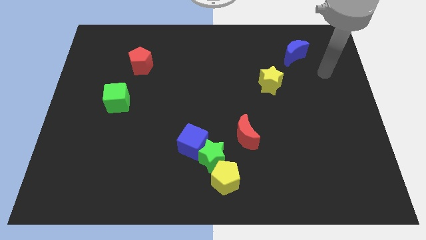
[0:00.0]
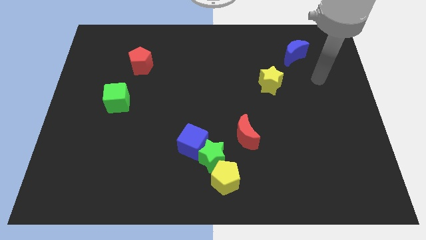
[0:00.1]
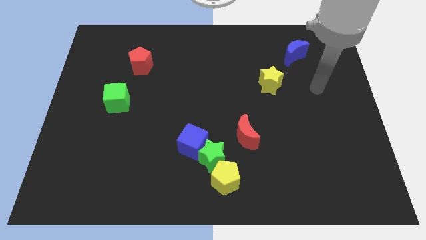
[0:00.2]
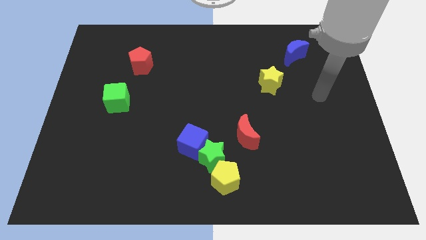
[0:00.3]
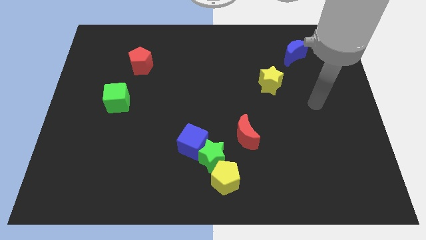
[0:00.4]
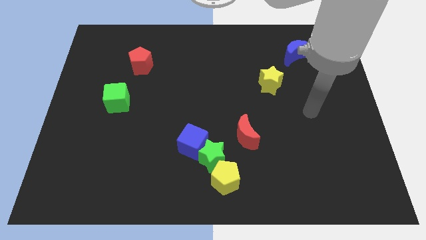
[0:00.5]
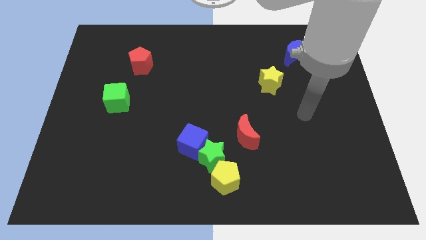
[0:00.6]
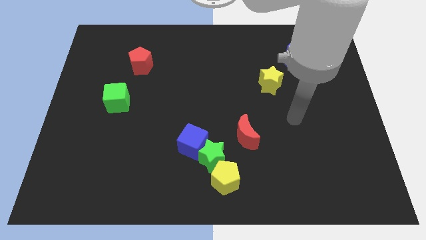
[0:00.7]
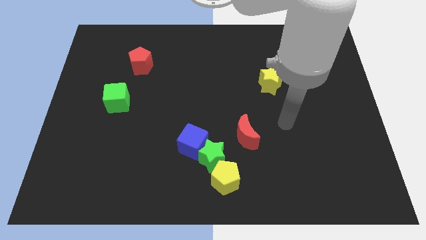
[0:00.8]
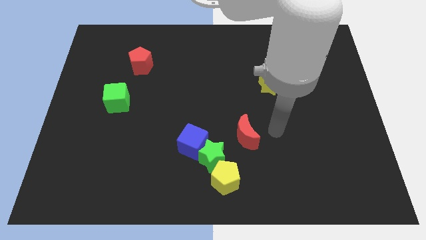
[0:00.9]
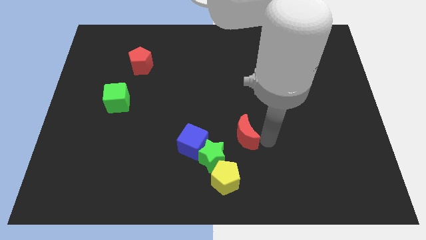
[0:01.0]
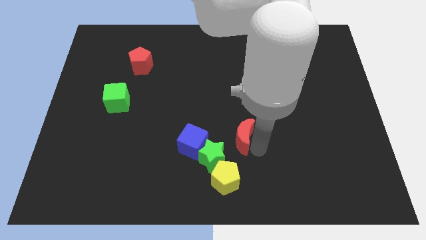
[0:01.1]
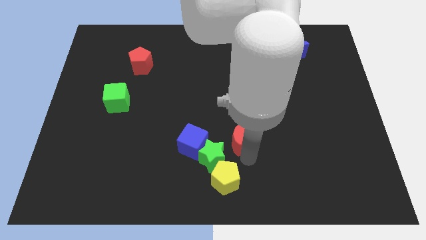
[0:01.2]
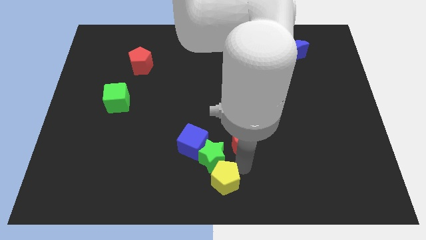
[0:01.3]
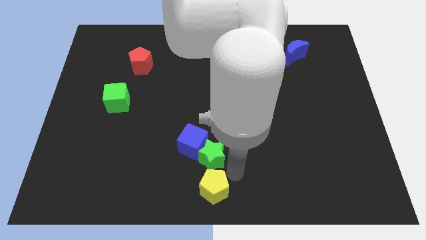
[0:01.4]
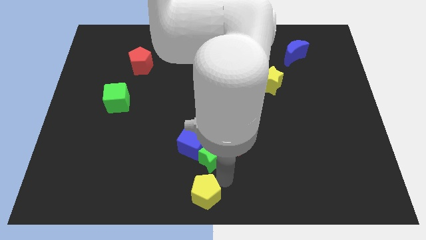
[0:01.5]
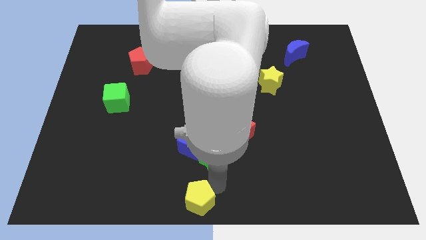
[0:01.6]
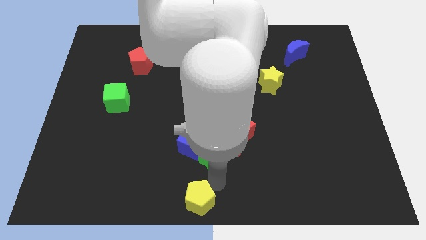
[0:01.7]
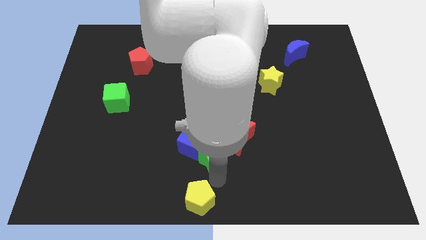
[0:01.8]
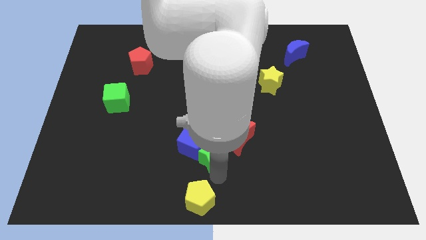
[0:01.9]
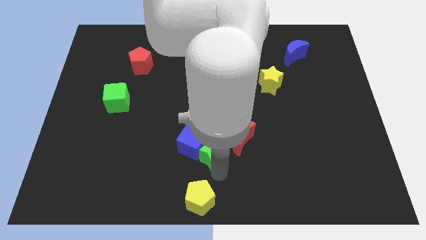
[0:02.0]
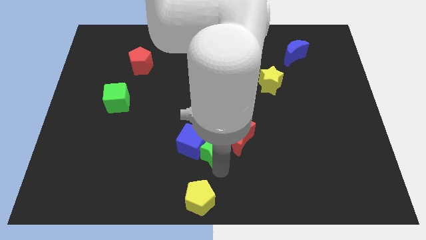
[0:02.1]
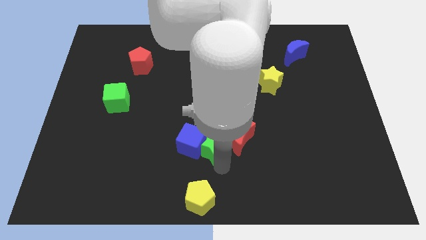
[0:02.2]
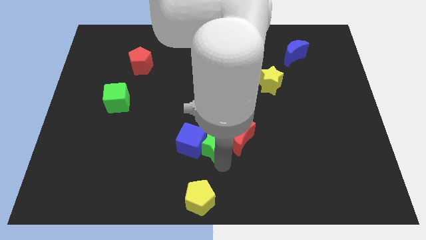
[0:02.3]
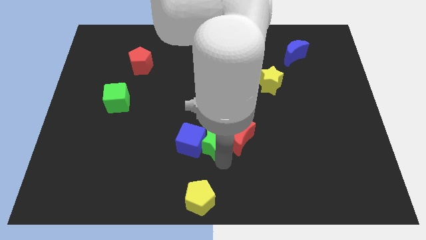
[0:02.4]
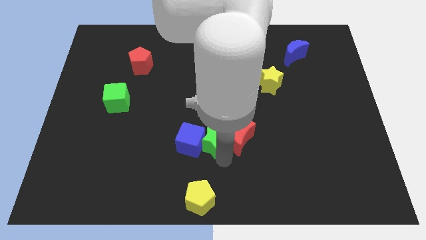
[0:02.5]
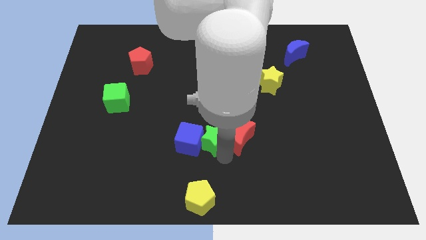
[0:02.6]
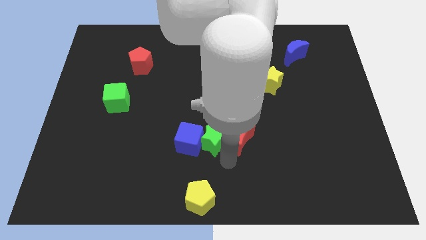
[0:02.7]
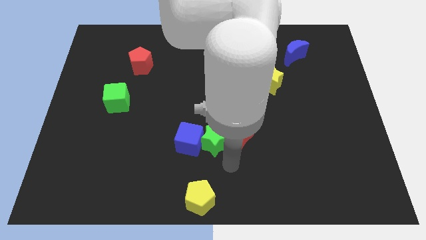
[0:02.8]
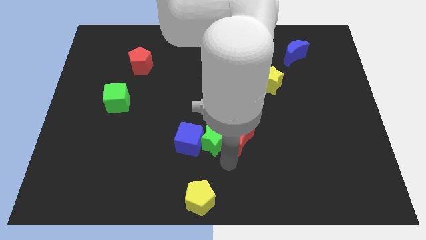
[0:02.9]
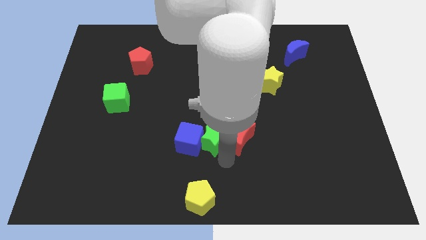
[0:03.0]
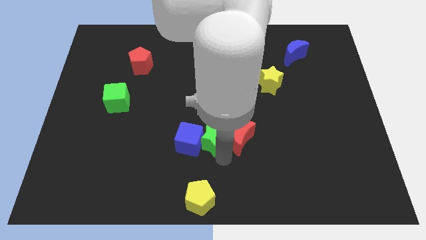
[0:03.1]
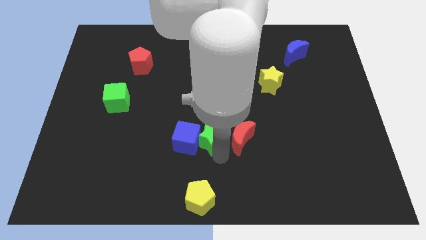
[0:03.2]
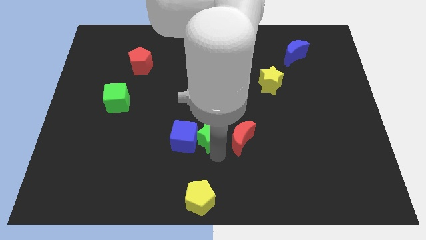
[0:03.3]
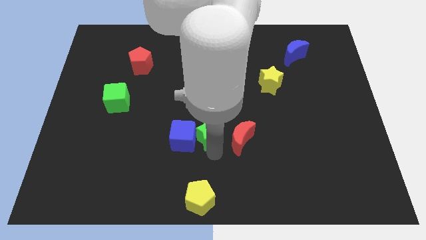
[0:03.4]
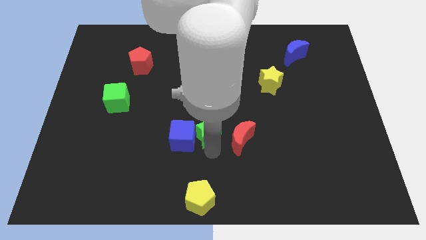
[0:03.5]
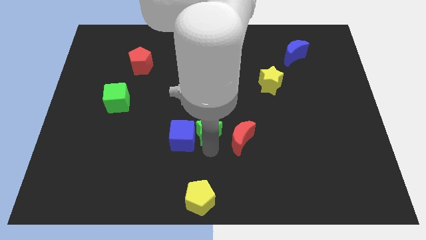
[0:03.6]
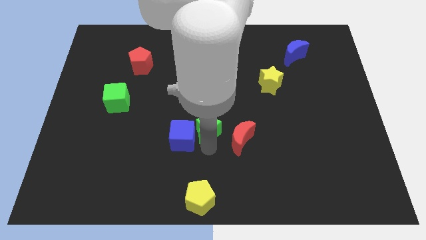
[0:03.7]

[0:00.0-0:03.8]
move the green star upwards a bit

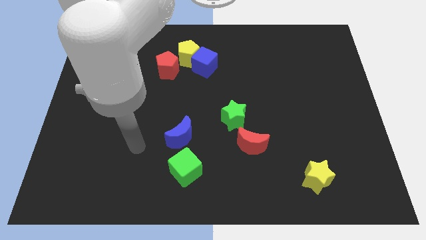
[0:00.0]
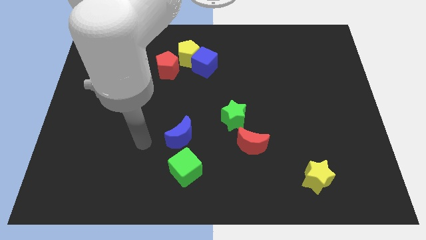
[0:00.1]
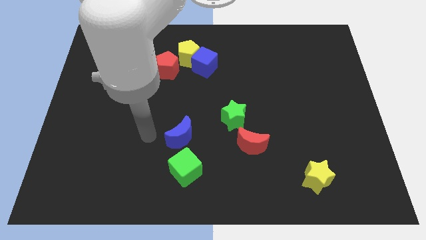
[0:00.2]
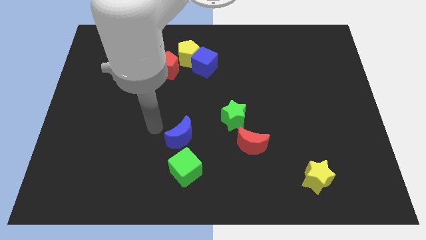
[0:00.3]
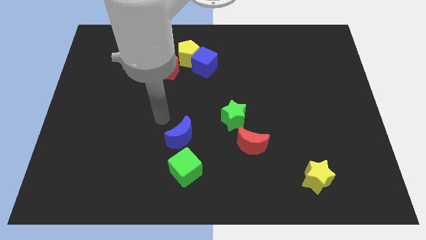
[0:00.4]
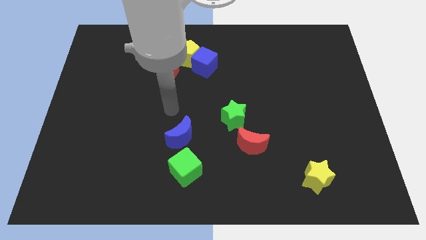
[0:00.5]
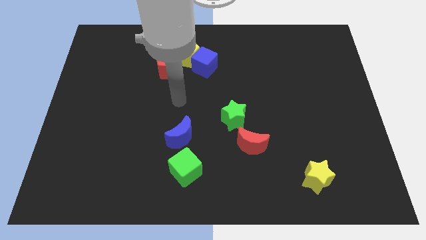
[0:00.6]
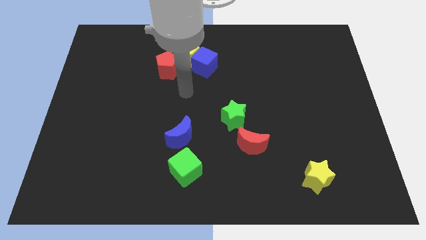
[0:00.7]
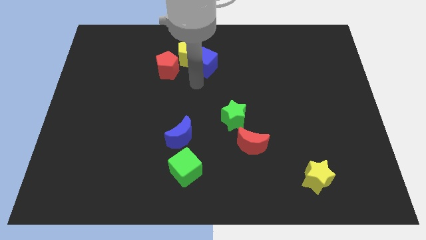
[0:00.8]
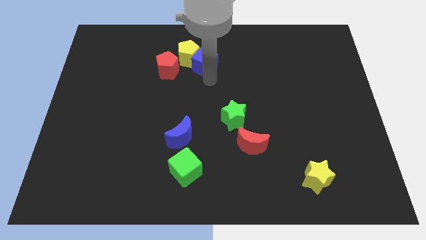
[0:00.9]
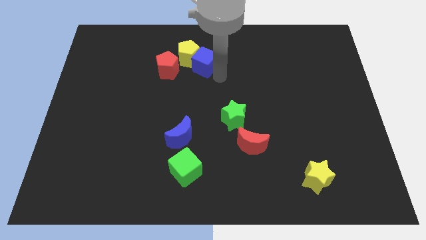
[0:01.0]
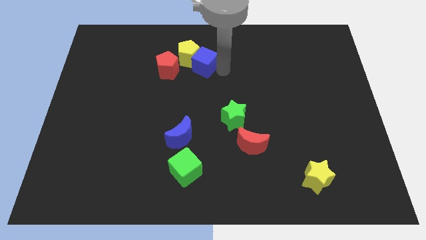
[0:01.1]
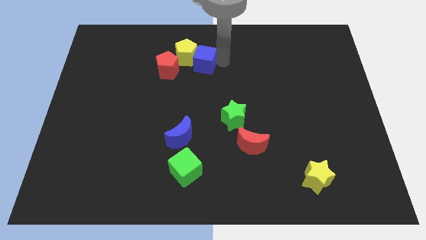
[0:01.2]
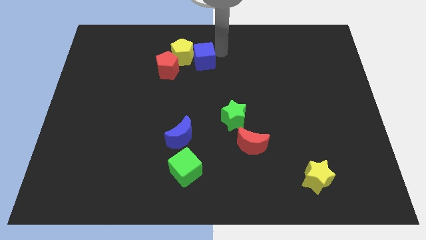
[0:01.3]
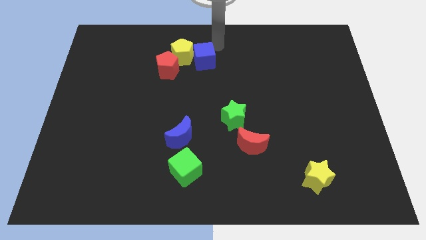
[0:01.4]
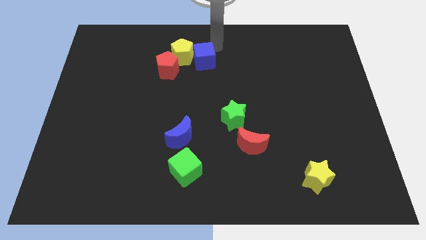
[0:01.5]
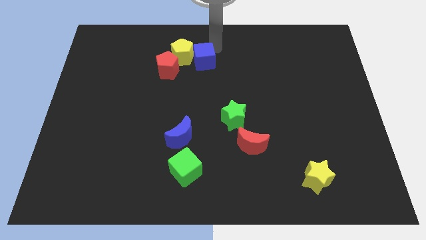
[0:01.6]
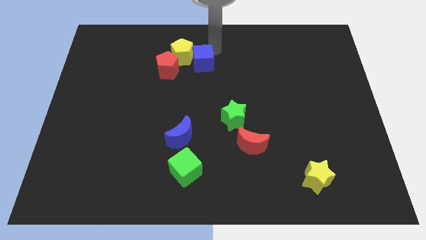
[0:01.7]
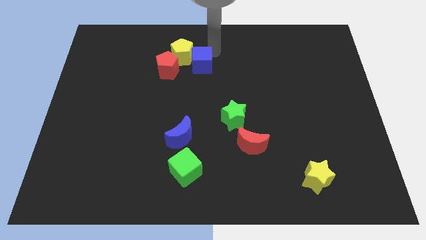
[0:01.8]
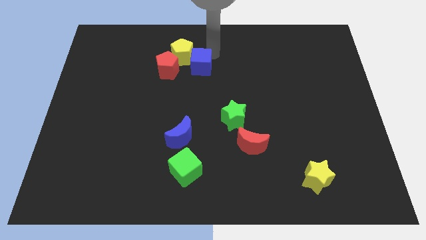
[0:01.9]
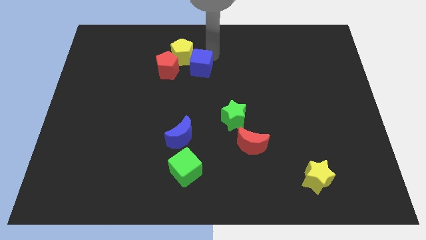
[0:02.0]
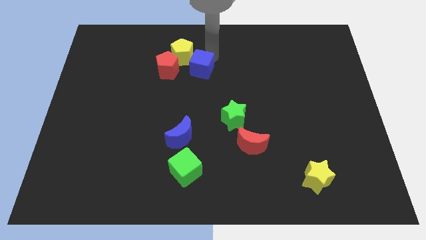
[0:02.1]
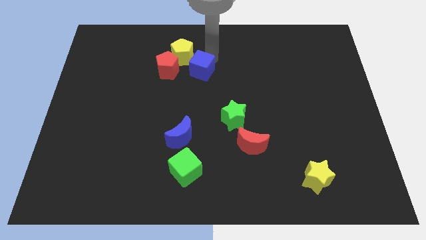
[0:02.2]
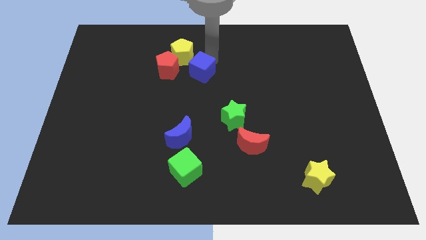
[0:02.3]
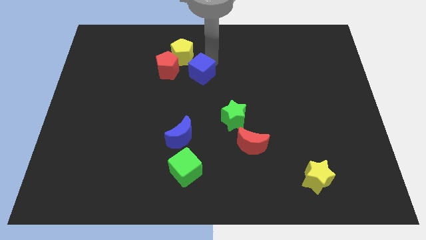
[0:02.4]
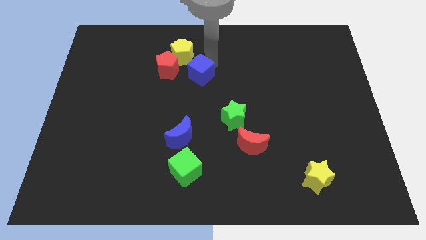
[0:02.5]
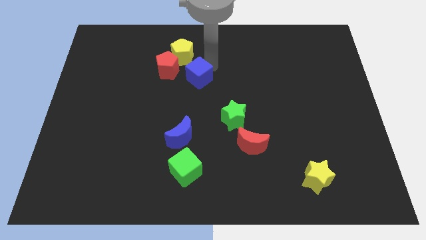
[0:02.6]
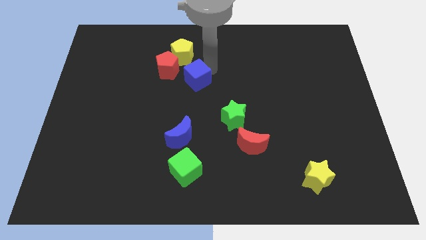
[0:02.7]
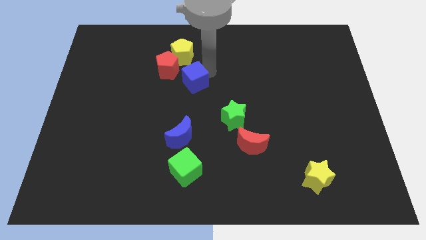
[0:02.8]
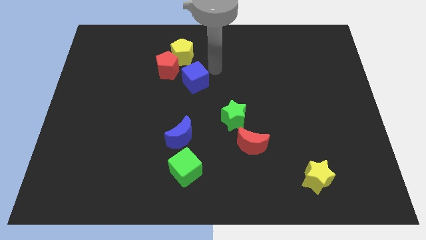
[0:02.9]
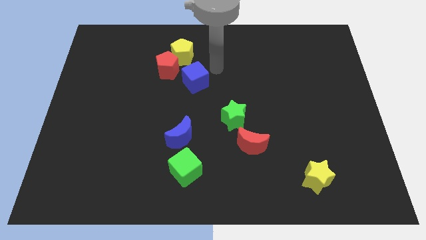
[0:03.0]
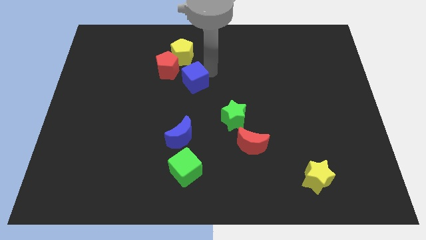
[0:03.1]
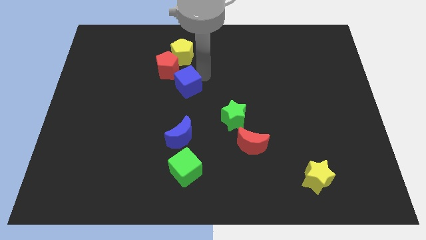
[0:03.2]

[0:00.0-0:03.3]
move the blue cube slightly down and left diagonally

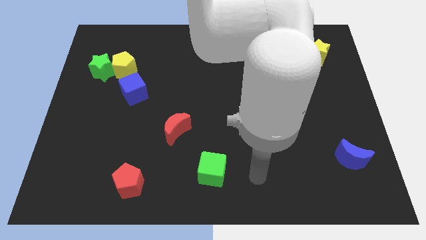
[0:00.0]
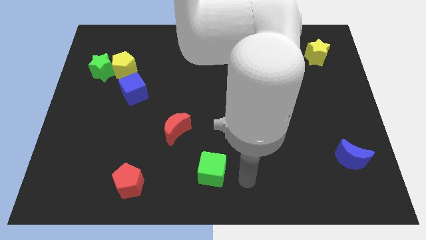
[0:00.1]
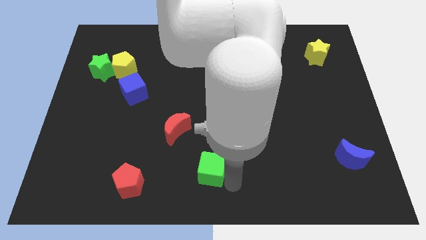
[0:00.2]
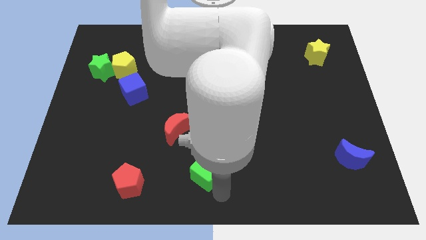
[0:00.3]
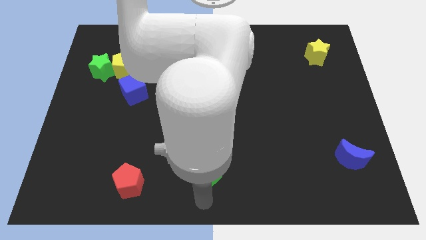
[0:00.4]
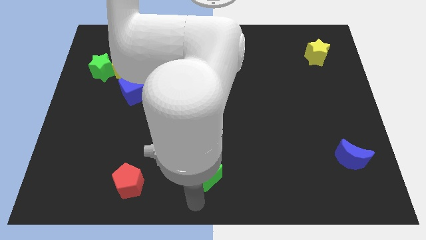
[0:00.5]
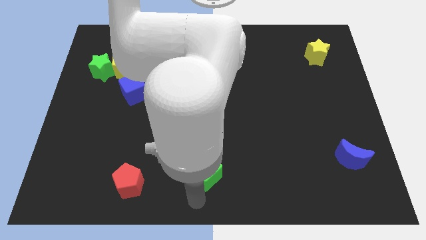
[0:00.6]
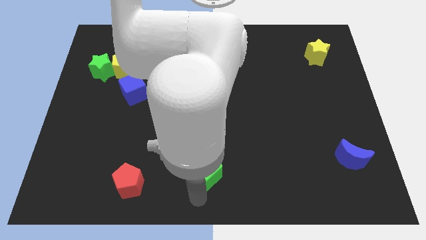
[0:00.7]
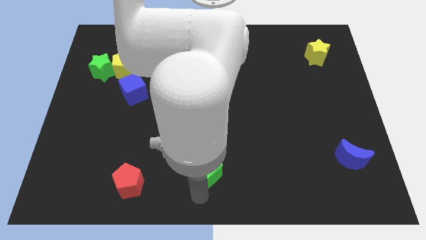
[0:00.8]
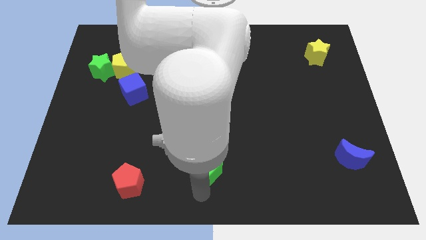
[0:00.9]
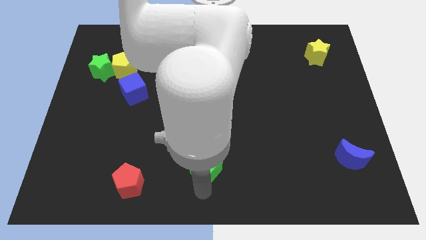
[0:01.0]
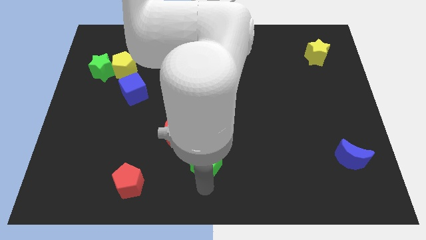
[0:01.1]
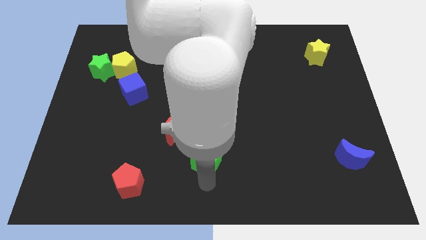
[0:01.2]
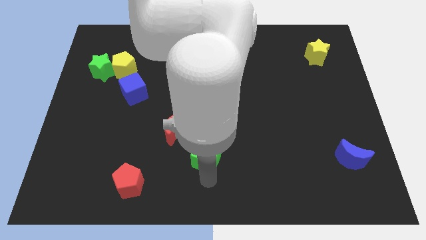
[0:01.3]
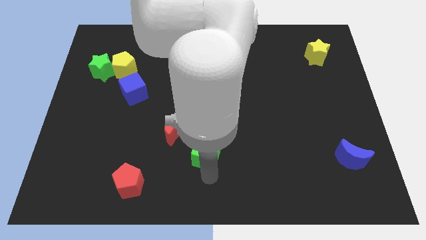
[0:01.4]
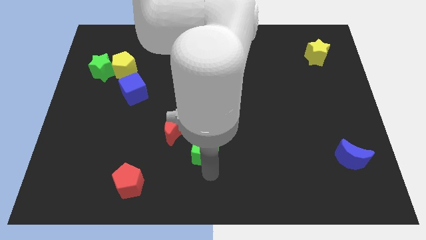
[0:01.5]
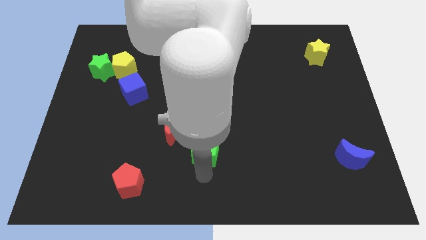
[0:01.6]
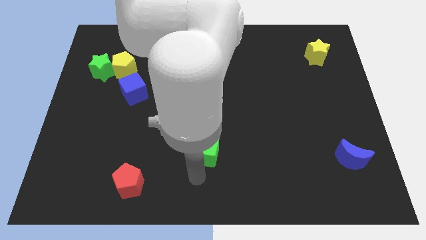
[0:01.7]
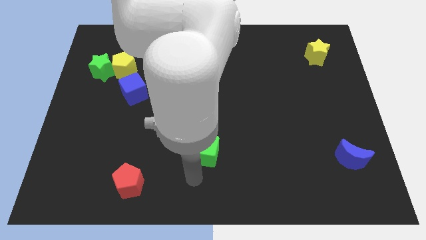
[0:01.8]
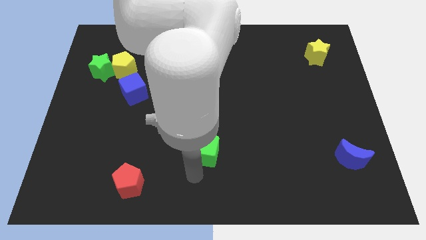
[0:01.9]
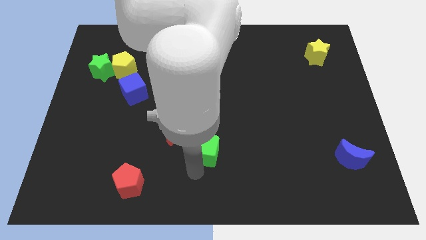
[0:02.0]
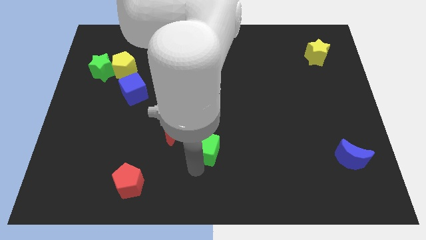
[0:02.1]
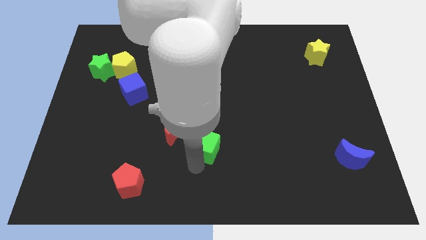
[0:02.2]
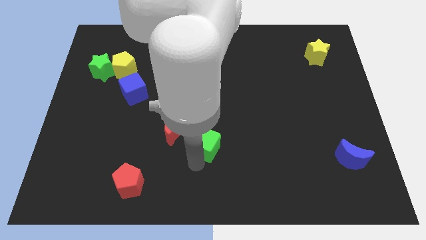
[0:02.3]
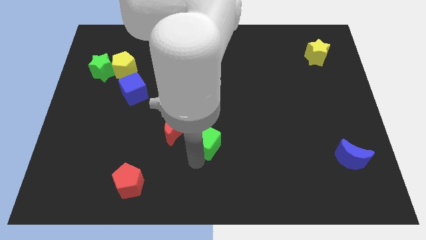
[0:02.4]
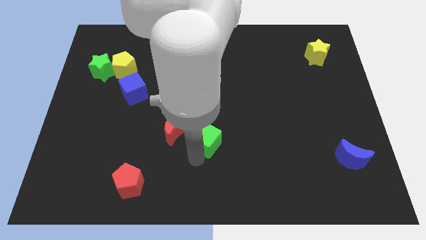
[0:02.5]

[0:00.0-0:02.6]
push the green cube somewhat up
